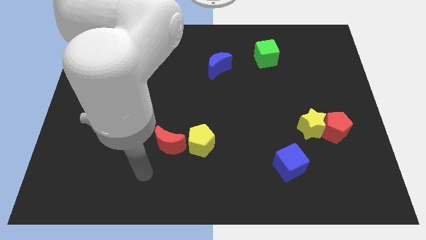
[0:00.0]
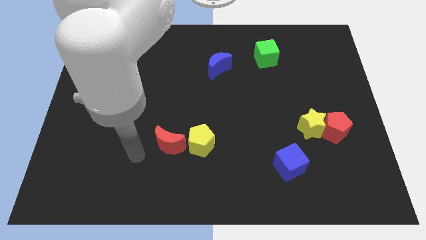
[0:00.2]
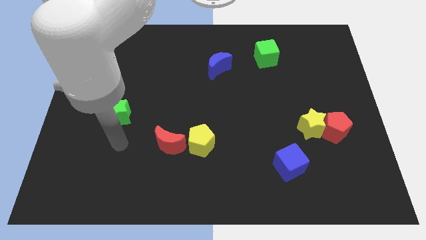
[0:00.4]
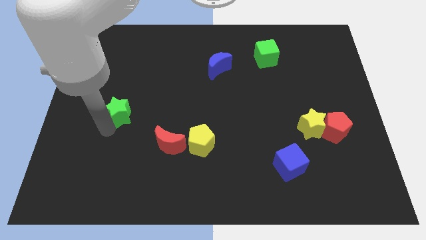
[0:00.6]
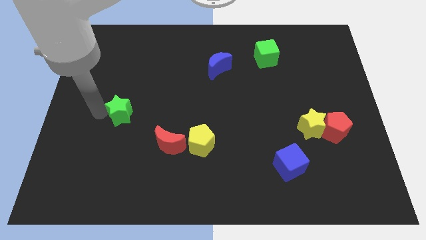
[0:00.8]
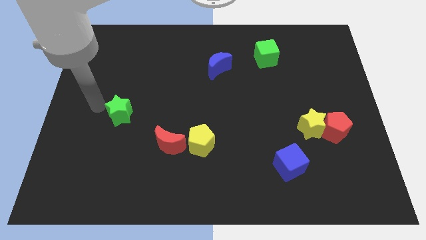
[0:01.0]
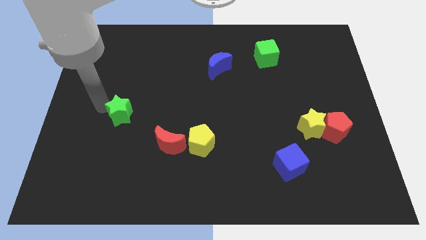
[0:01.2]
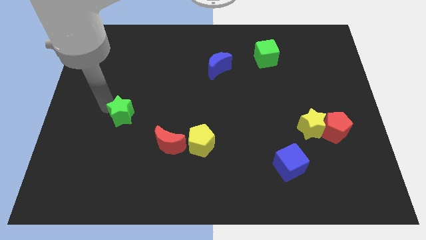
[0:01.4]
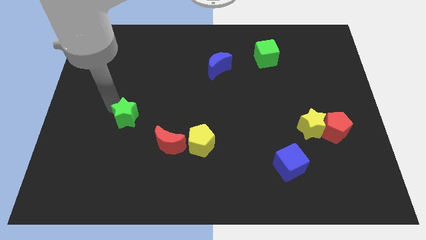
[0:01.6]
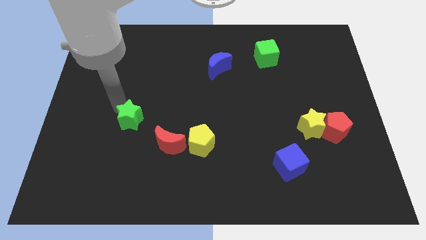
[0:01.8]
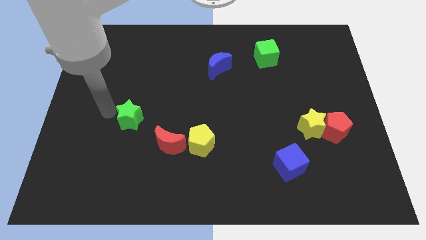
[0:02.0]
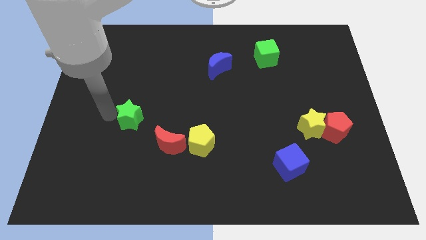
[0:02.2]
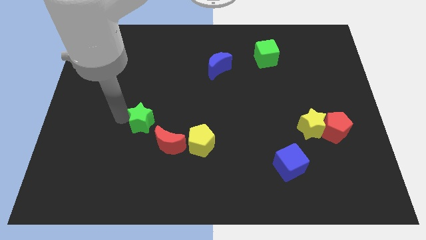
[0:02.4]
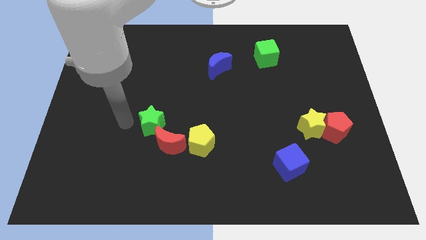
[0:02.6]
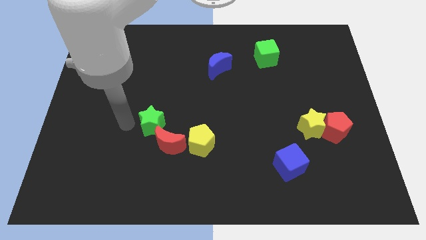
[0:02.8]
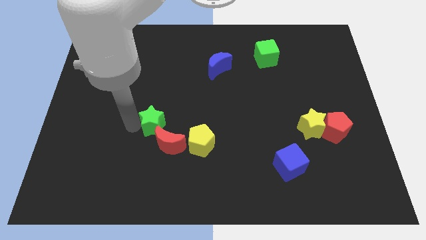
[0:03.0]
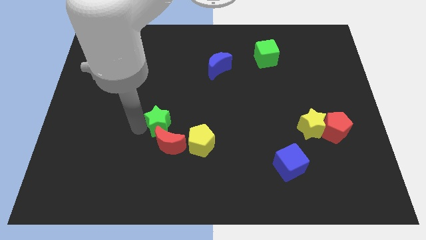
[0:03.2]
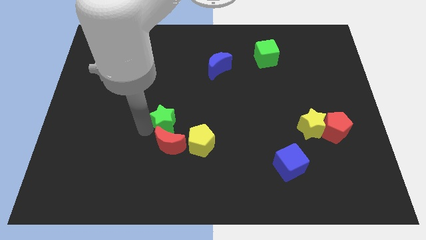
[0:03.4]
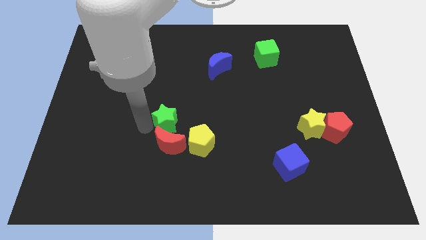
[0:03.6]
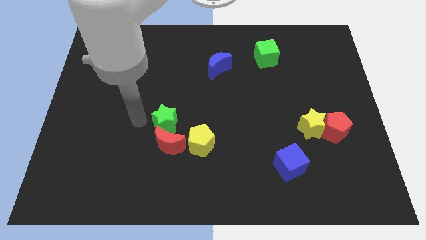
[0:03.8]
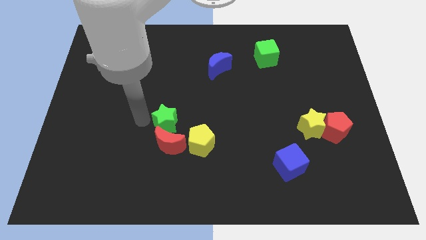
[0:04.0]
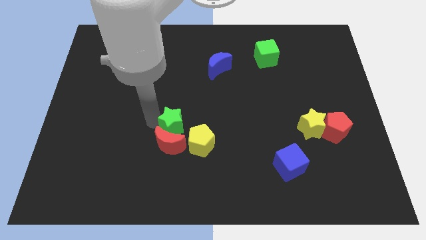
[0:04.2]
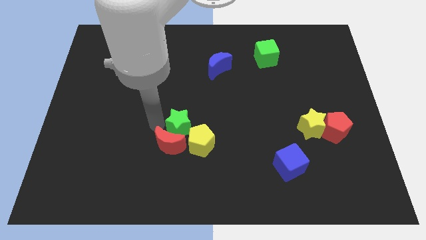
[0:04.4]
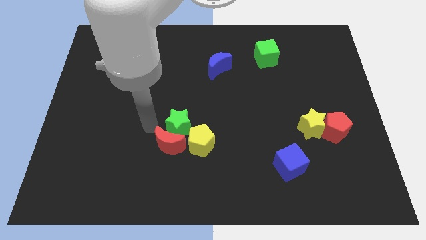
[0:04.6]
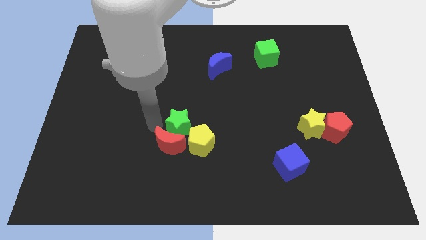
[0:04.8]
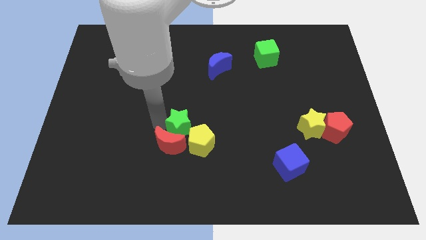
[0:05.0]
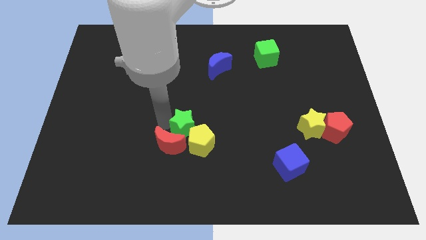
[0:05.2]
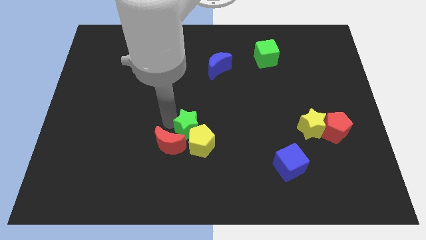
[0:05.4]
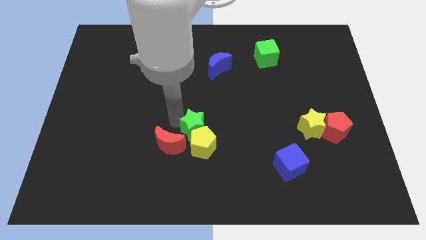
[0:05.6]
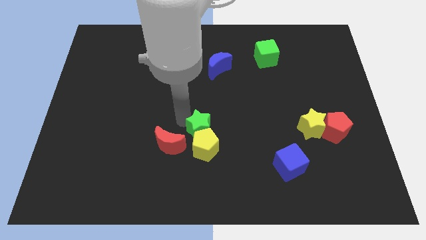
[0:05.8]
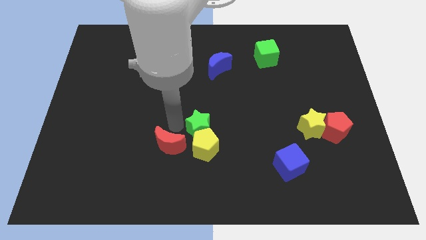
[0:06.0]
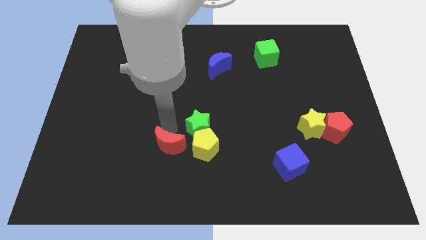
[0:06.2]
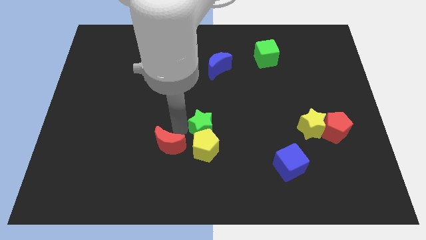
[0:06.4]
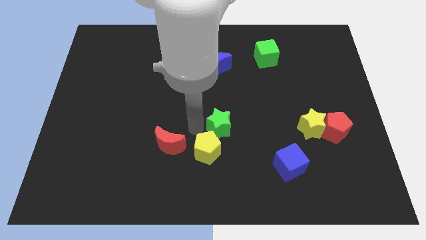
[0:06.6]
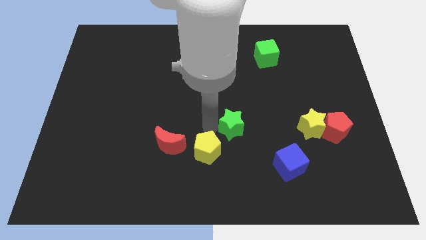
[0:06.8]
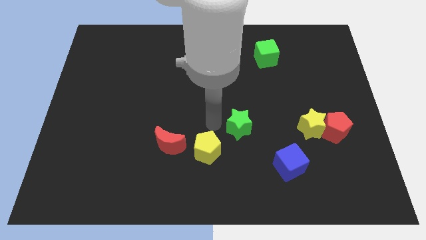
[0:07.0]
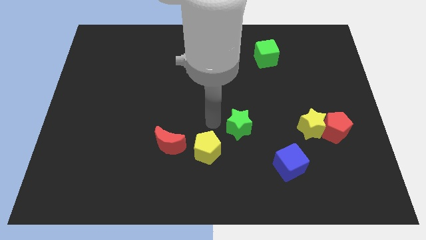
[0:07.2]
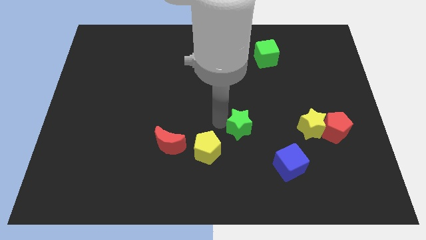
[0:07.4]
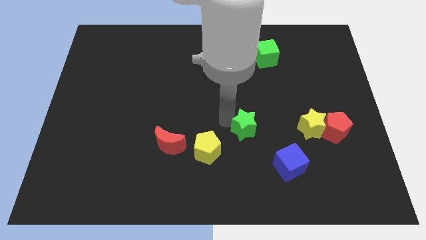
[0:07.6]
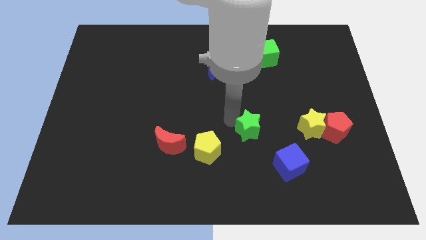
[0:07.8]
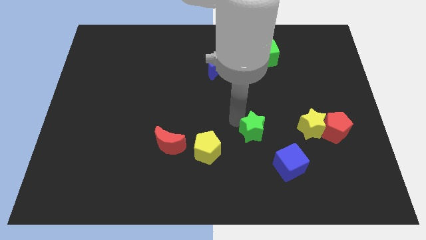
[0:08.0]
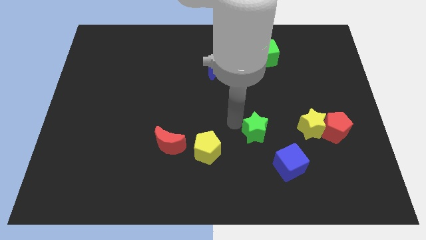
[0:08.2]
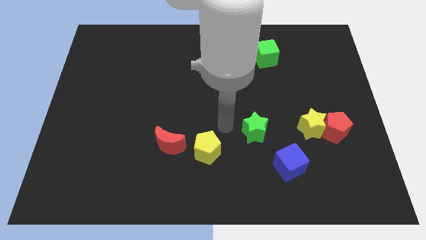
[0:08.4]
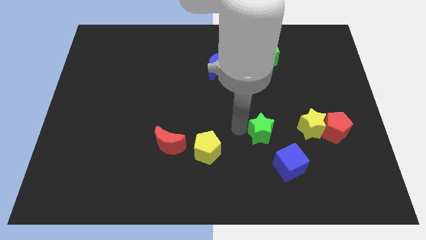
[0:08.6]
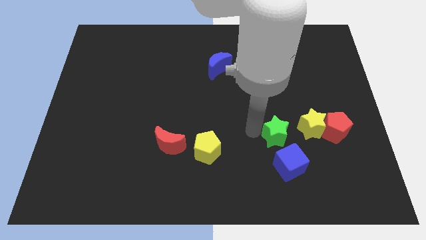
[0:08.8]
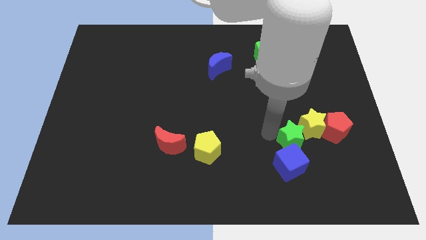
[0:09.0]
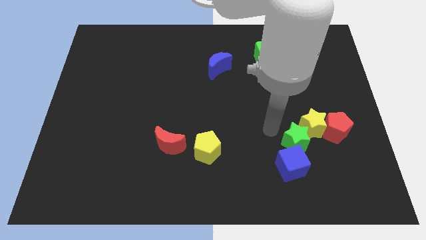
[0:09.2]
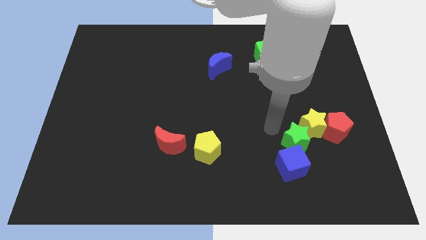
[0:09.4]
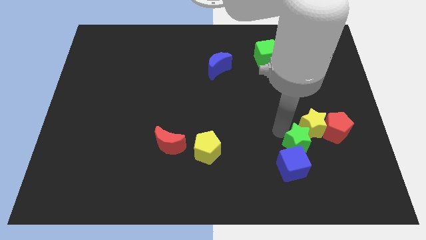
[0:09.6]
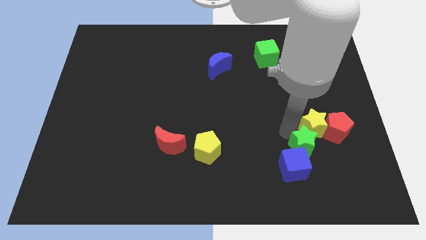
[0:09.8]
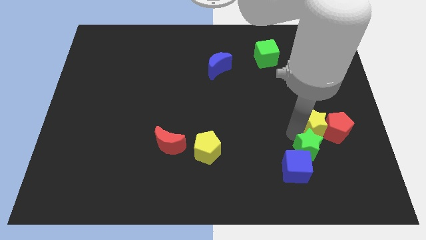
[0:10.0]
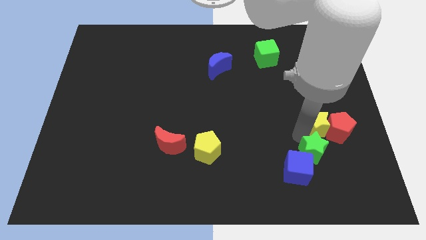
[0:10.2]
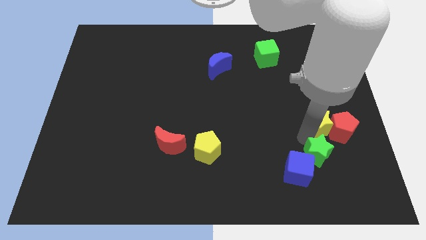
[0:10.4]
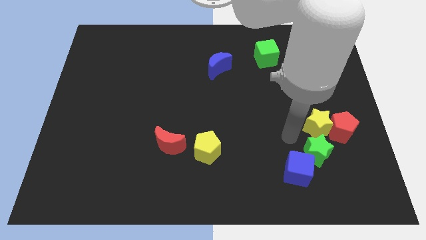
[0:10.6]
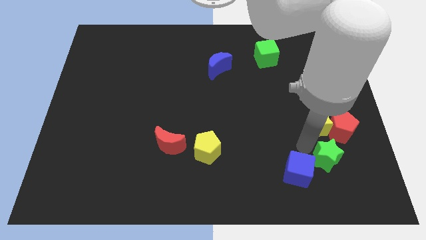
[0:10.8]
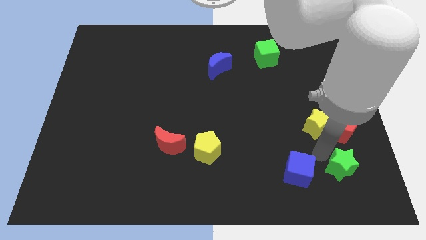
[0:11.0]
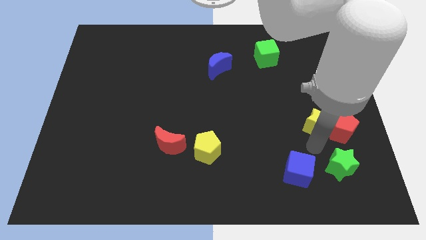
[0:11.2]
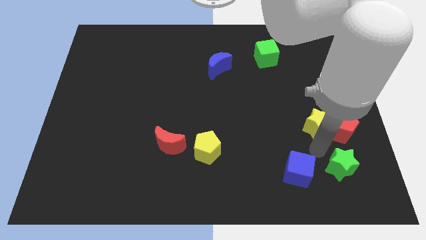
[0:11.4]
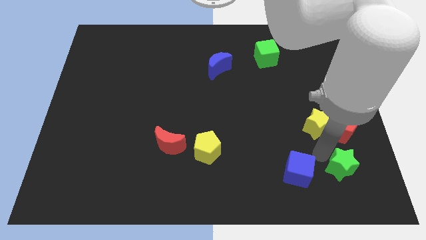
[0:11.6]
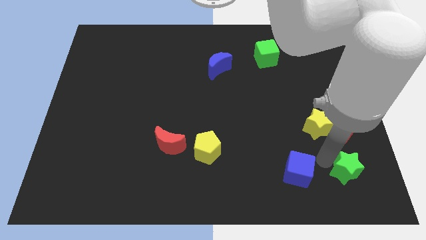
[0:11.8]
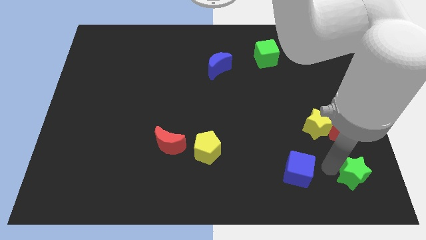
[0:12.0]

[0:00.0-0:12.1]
push the green star to the lower right corner
